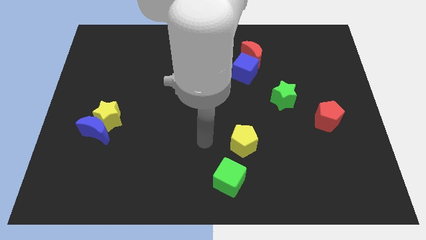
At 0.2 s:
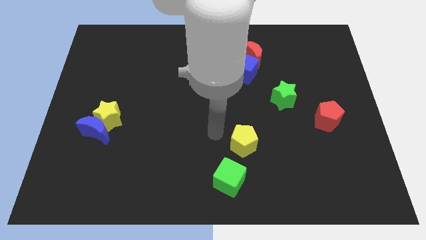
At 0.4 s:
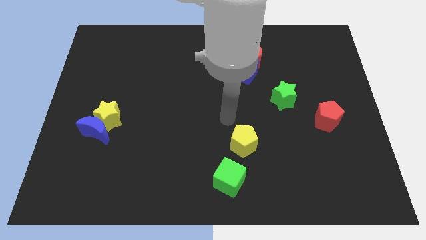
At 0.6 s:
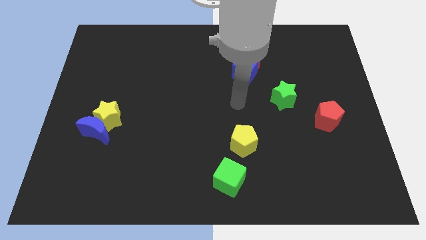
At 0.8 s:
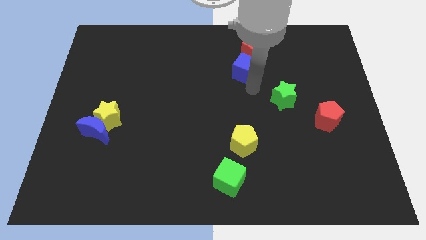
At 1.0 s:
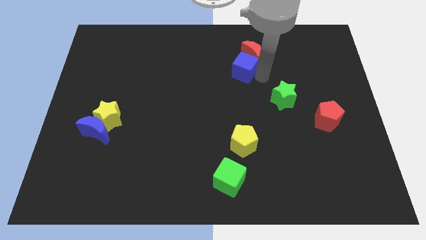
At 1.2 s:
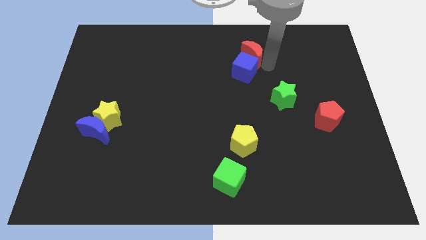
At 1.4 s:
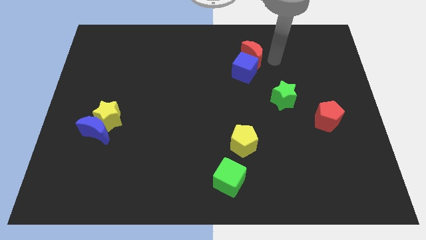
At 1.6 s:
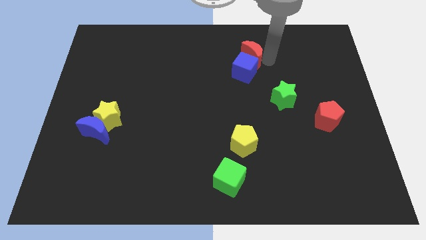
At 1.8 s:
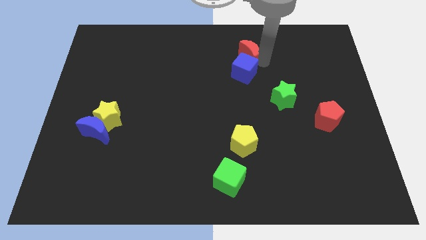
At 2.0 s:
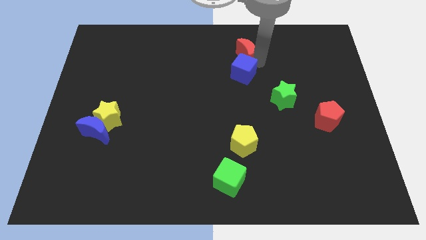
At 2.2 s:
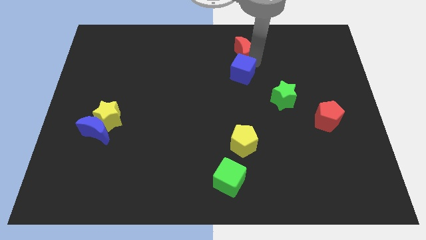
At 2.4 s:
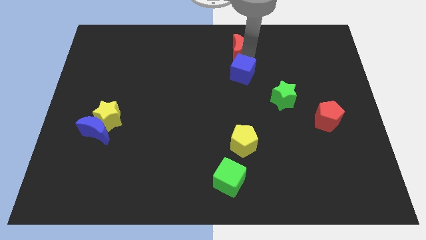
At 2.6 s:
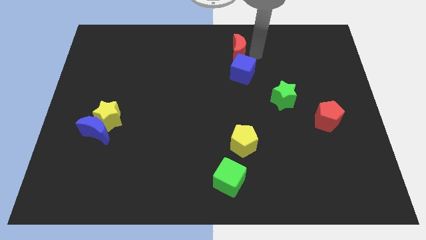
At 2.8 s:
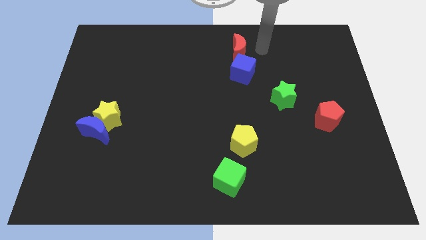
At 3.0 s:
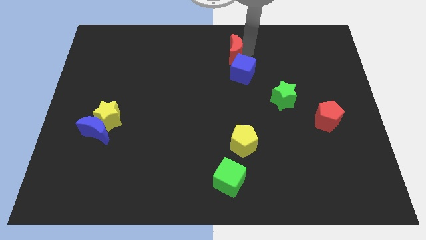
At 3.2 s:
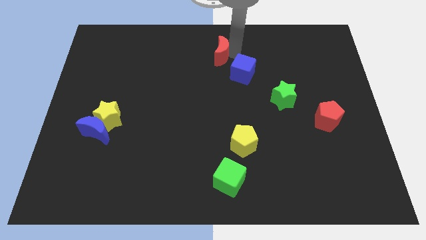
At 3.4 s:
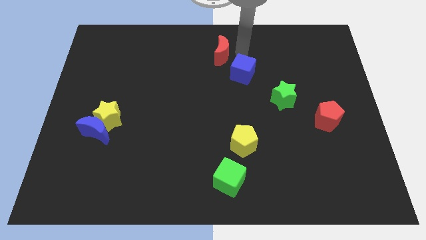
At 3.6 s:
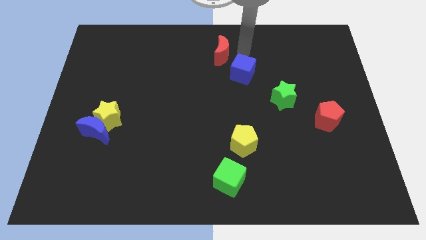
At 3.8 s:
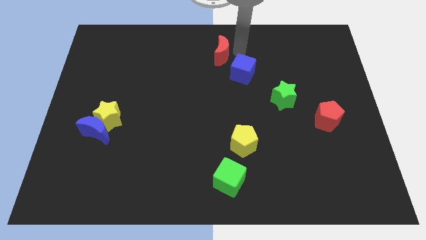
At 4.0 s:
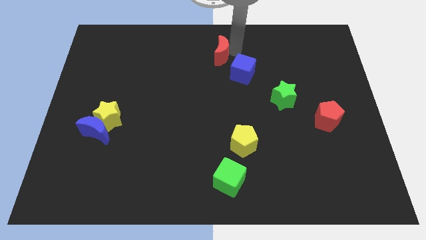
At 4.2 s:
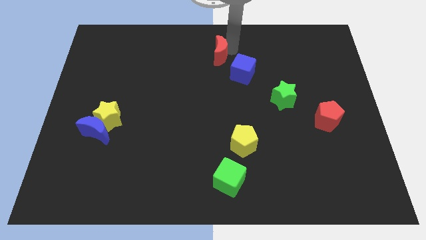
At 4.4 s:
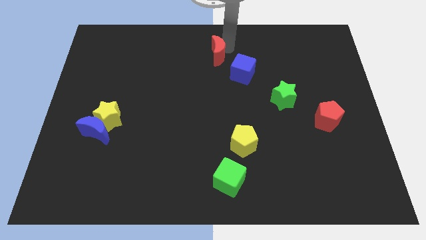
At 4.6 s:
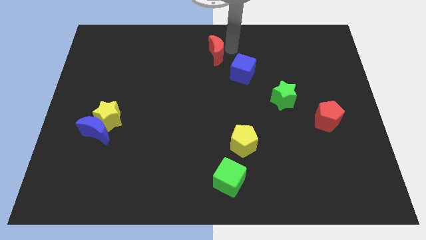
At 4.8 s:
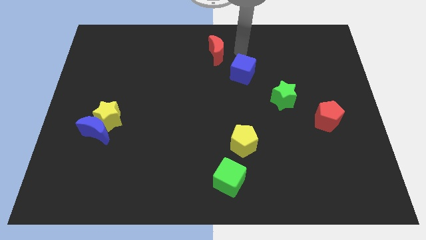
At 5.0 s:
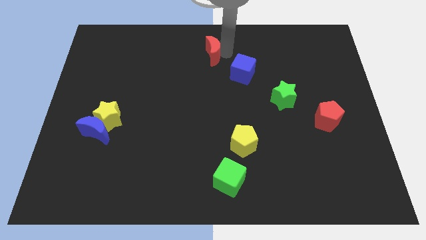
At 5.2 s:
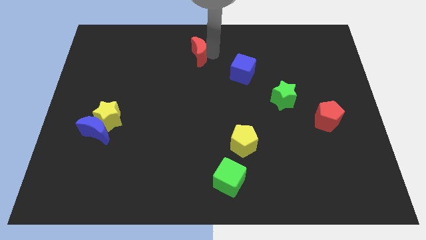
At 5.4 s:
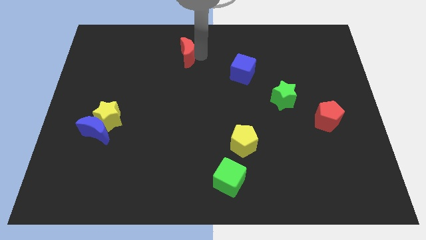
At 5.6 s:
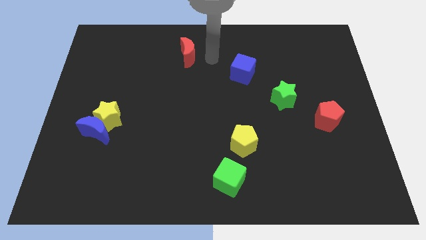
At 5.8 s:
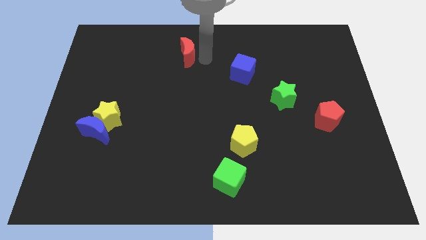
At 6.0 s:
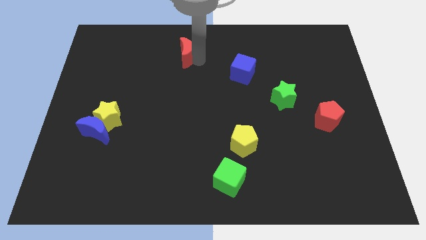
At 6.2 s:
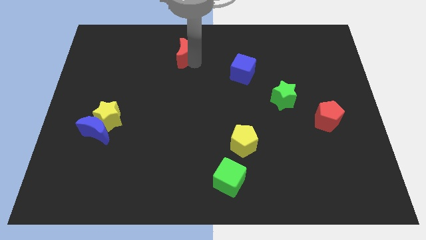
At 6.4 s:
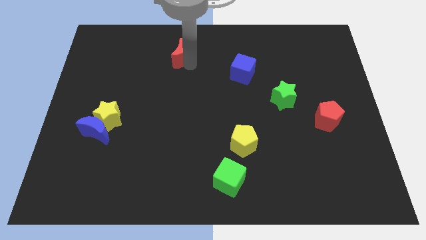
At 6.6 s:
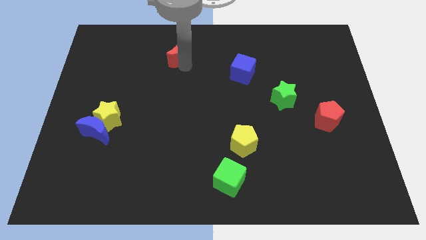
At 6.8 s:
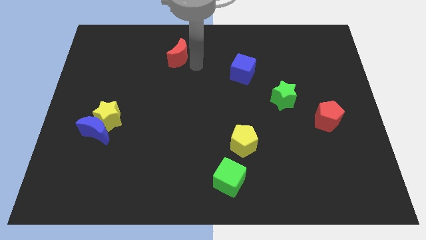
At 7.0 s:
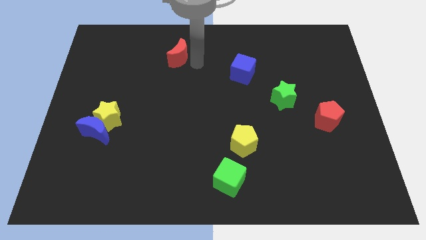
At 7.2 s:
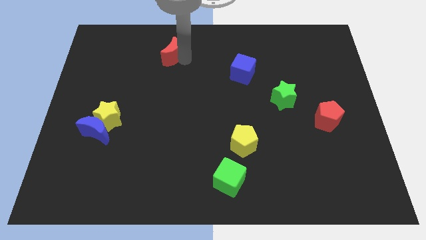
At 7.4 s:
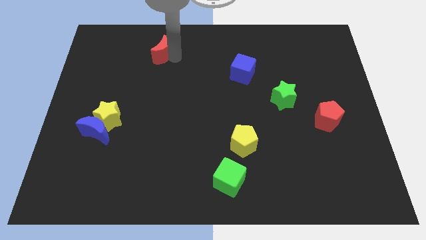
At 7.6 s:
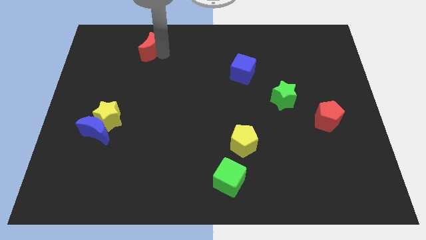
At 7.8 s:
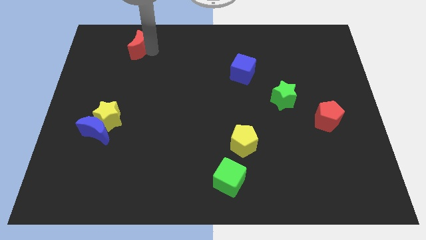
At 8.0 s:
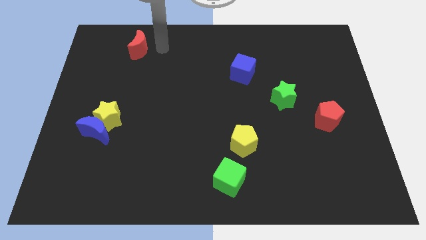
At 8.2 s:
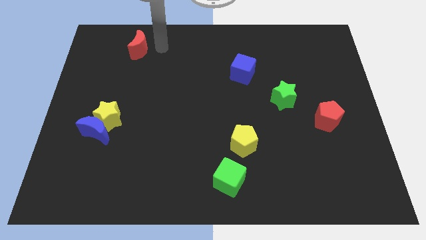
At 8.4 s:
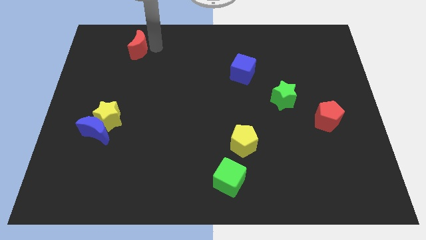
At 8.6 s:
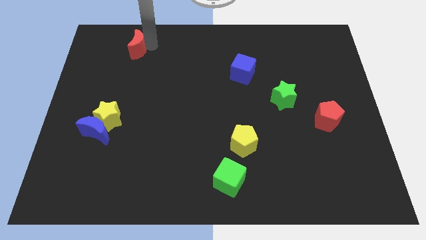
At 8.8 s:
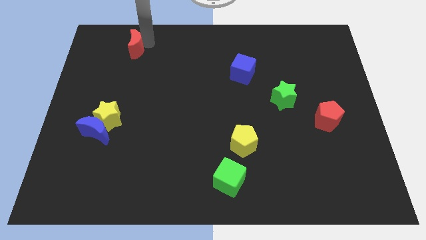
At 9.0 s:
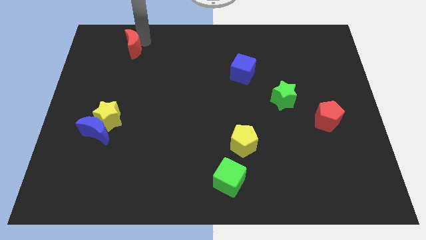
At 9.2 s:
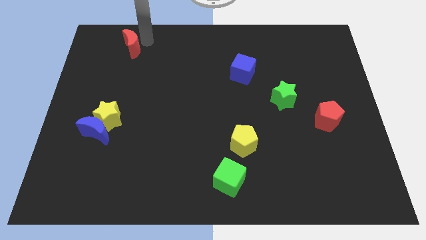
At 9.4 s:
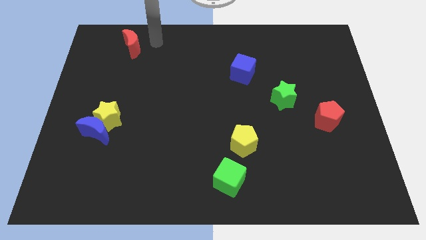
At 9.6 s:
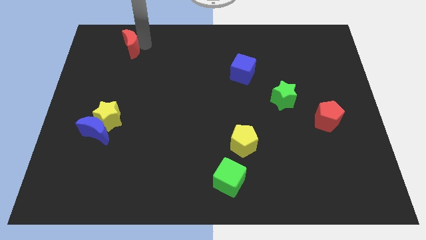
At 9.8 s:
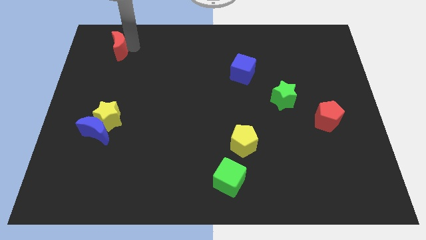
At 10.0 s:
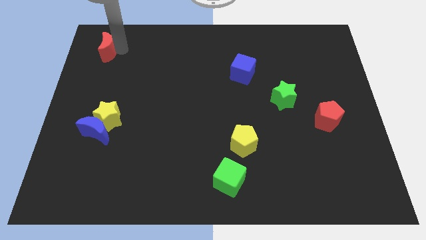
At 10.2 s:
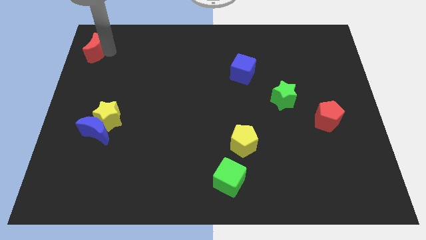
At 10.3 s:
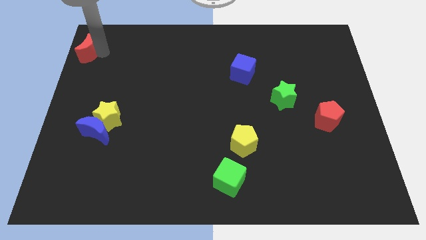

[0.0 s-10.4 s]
put the red moon to the top left
